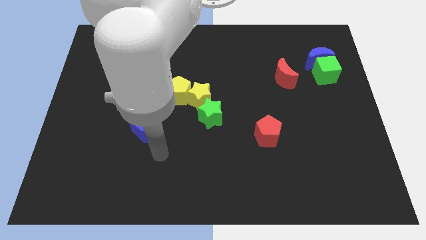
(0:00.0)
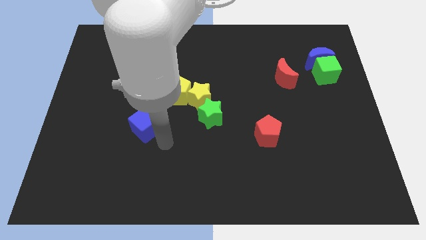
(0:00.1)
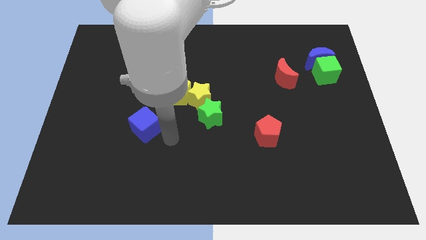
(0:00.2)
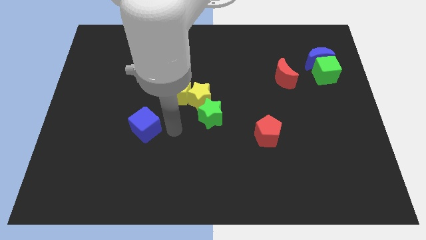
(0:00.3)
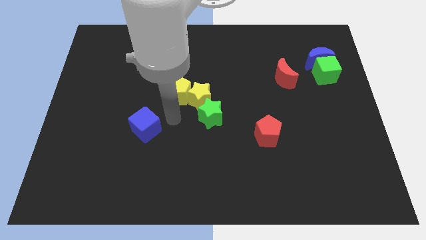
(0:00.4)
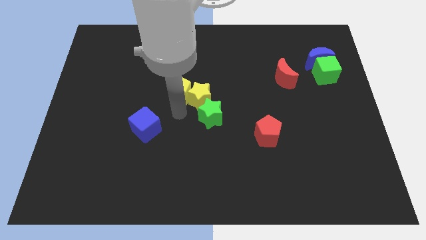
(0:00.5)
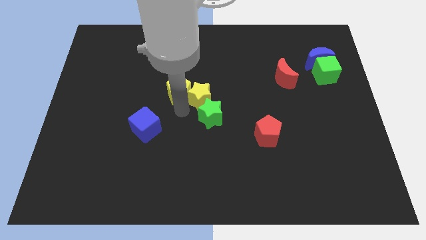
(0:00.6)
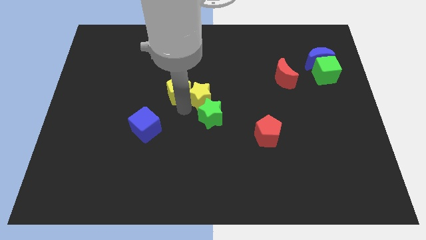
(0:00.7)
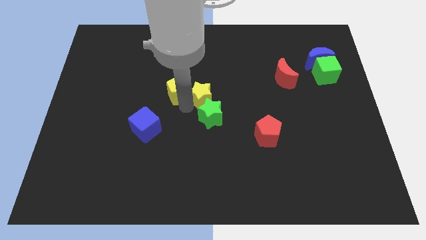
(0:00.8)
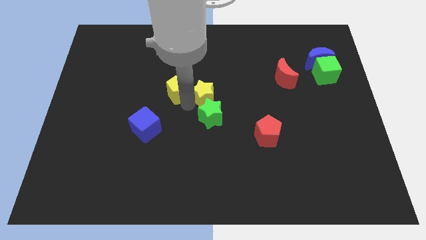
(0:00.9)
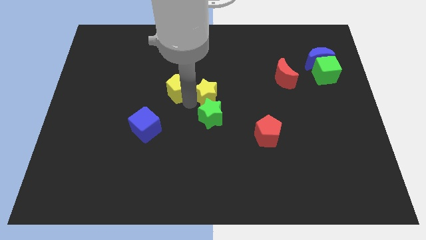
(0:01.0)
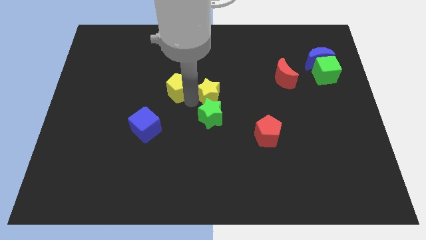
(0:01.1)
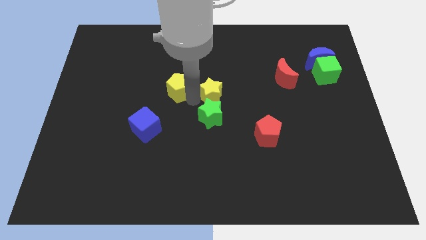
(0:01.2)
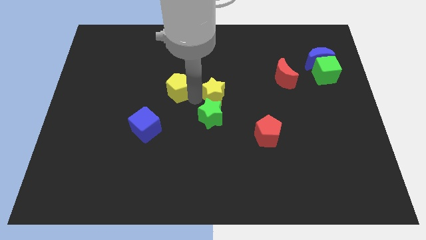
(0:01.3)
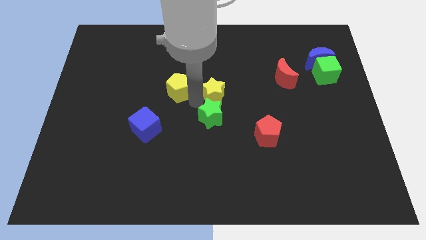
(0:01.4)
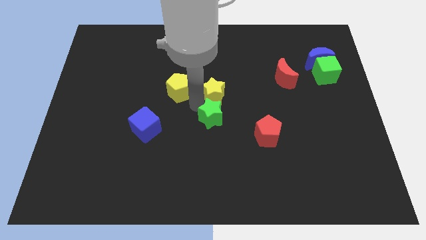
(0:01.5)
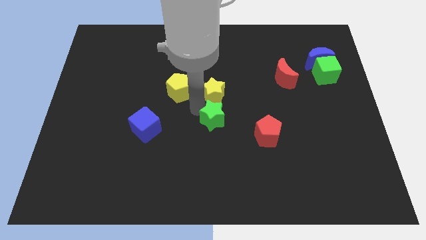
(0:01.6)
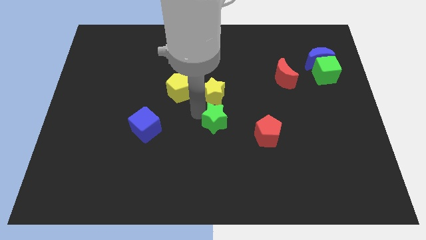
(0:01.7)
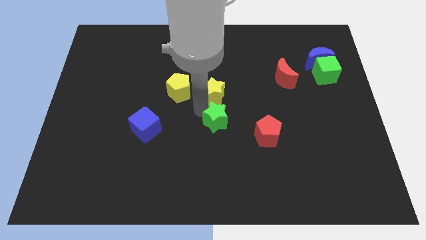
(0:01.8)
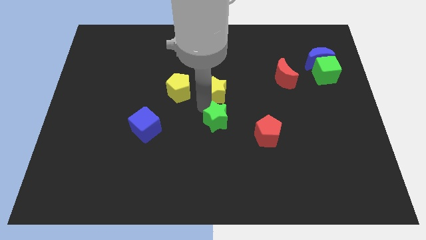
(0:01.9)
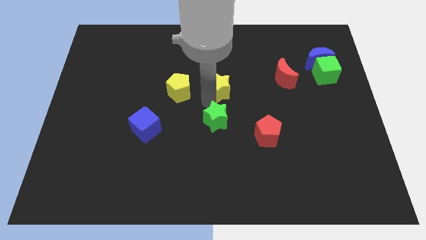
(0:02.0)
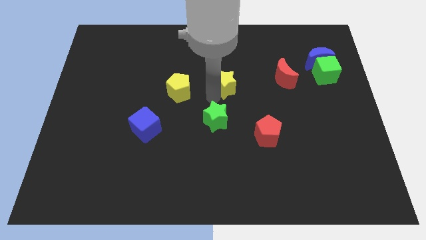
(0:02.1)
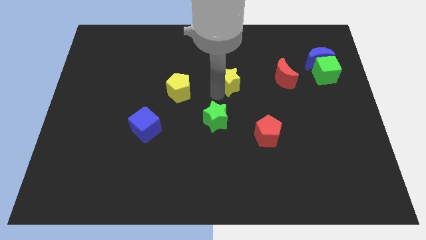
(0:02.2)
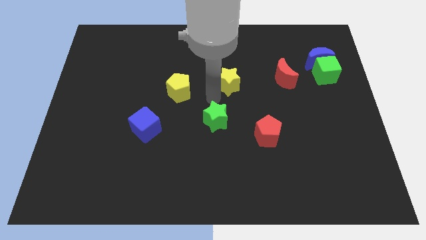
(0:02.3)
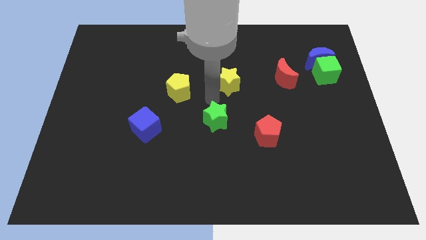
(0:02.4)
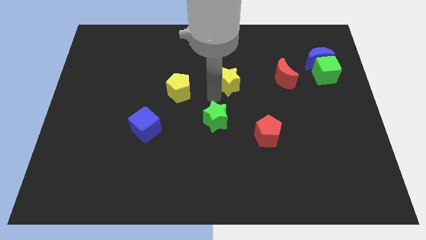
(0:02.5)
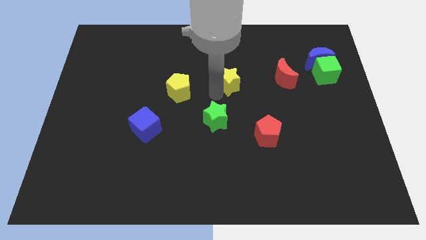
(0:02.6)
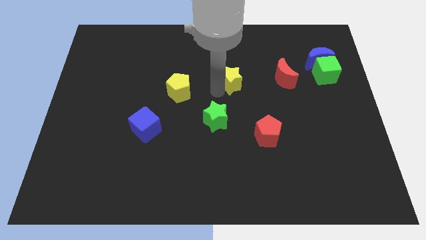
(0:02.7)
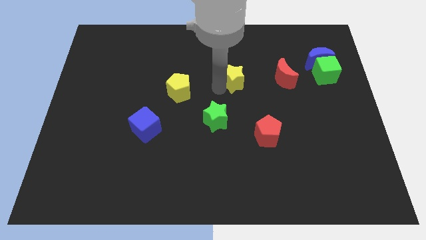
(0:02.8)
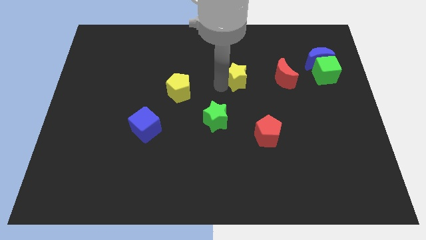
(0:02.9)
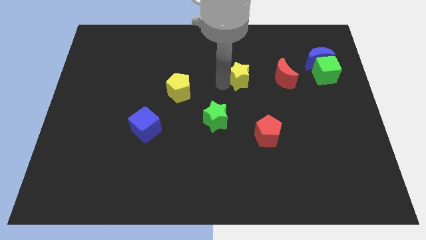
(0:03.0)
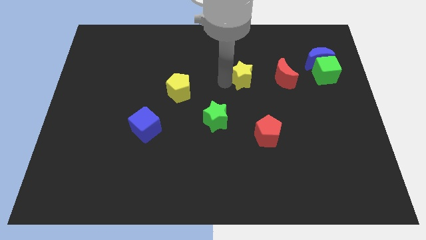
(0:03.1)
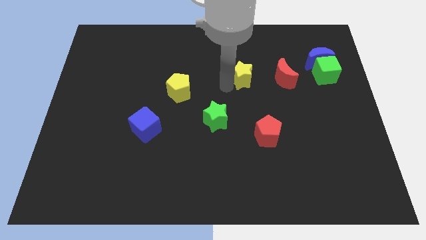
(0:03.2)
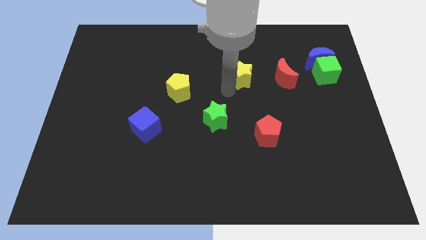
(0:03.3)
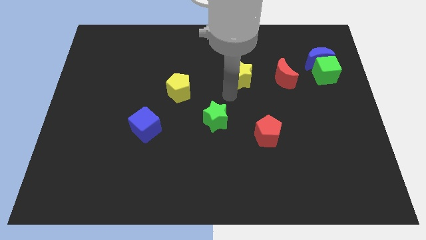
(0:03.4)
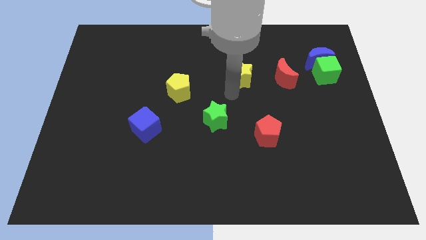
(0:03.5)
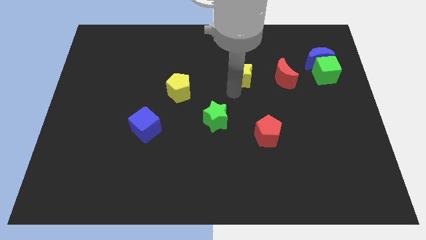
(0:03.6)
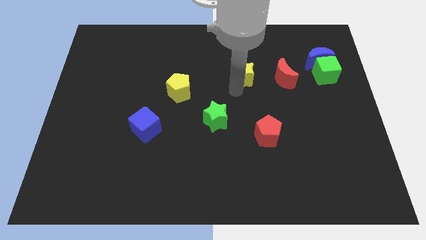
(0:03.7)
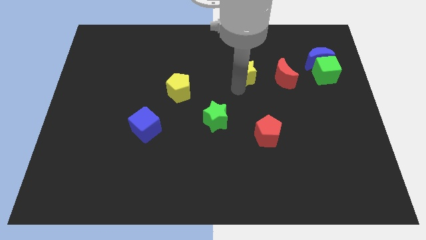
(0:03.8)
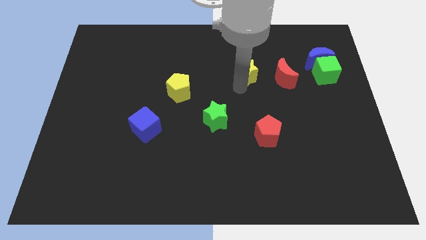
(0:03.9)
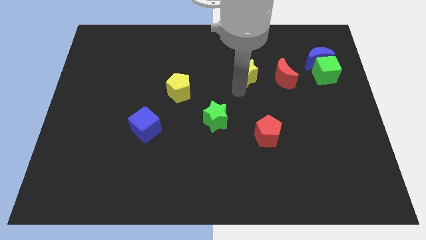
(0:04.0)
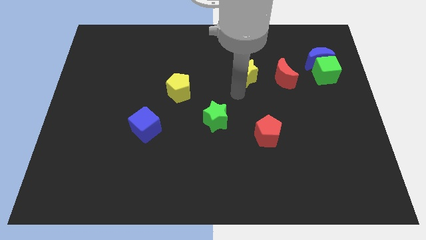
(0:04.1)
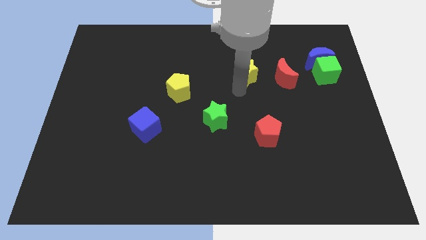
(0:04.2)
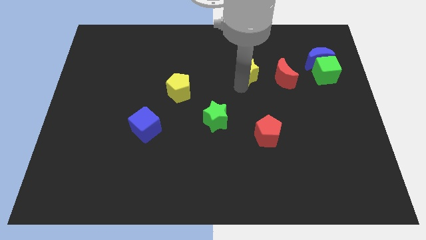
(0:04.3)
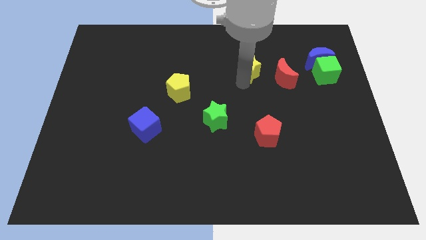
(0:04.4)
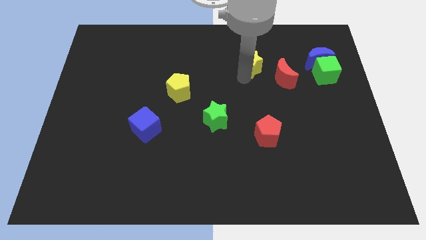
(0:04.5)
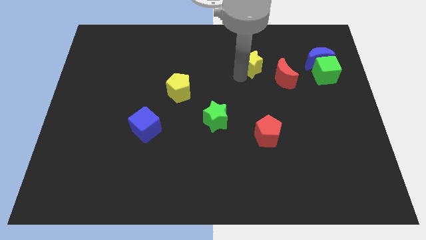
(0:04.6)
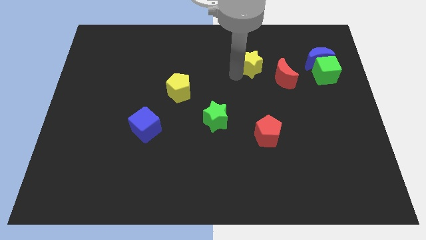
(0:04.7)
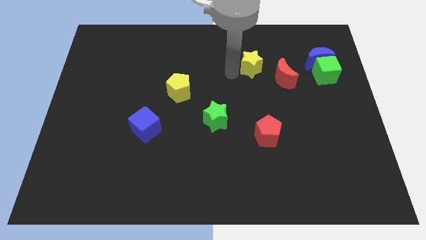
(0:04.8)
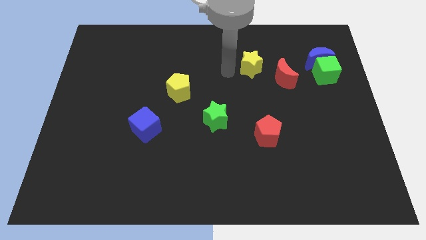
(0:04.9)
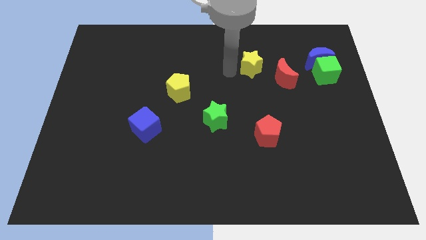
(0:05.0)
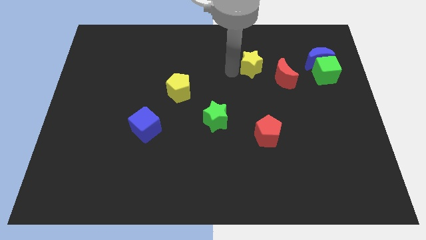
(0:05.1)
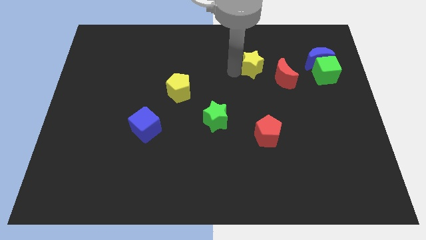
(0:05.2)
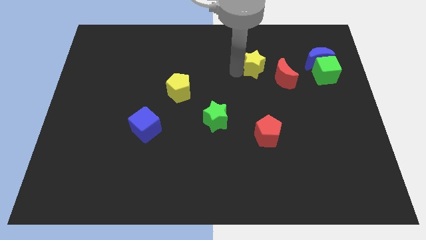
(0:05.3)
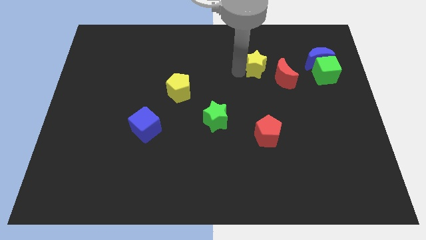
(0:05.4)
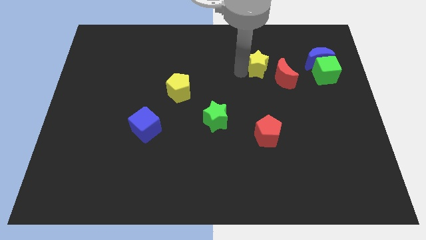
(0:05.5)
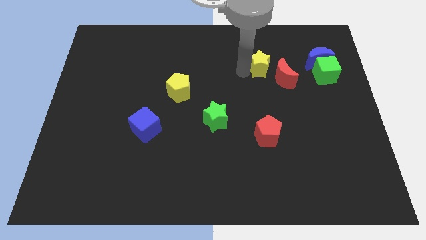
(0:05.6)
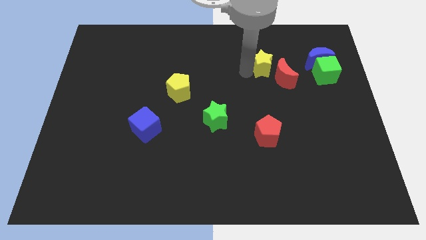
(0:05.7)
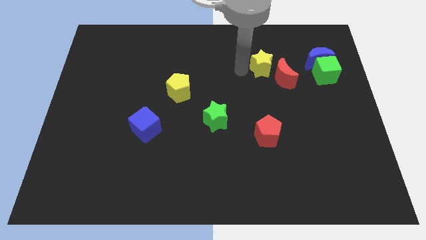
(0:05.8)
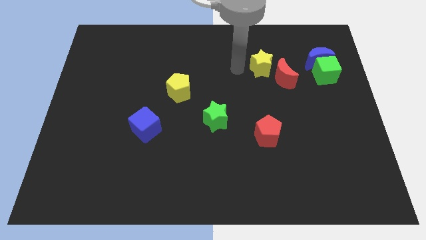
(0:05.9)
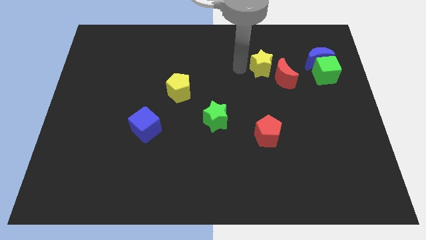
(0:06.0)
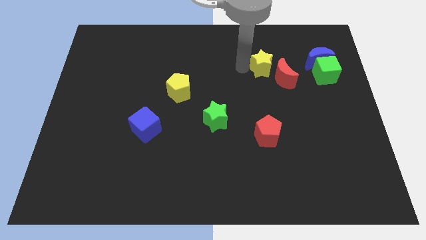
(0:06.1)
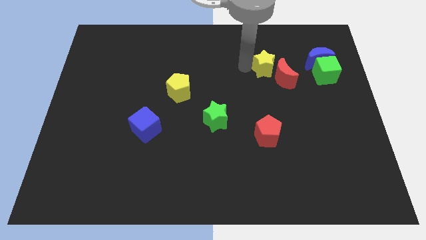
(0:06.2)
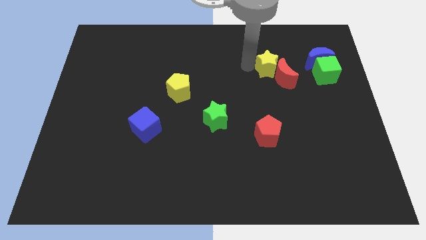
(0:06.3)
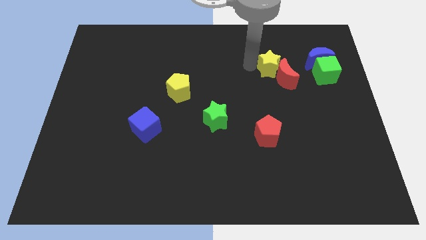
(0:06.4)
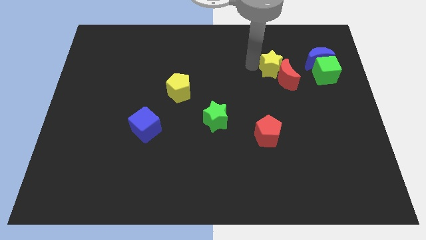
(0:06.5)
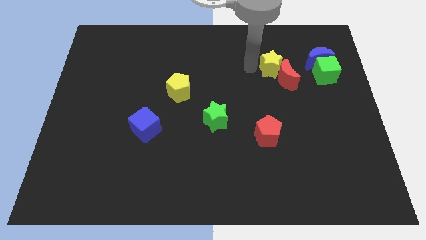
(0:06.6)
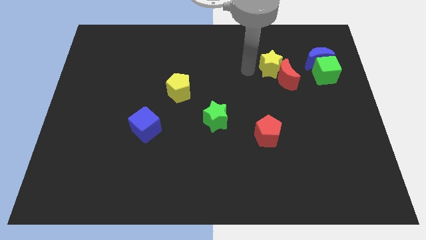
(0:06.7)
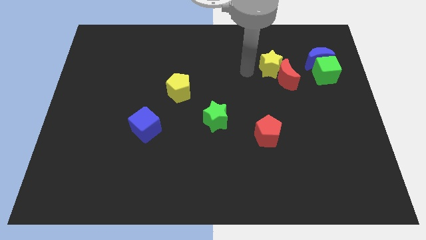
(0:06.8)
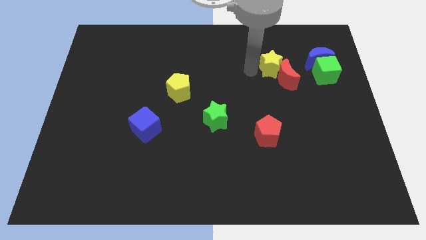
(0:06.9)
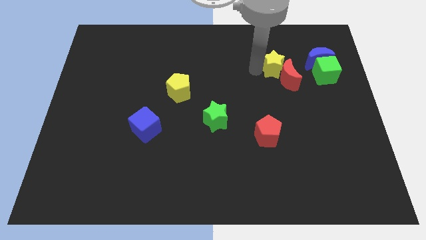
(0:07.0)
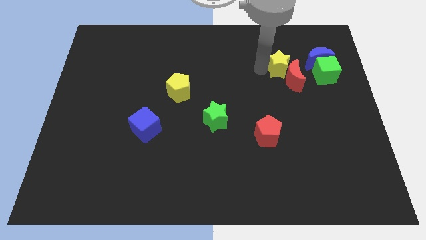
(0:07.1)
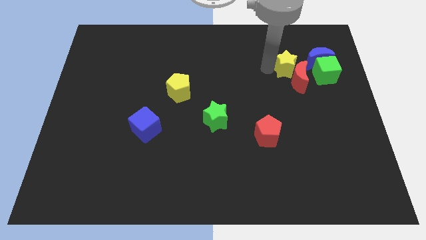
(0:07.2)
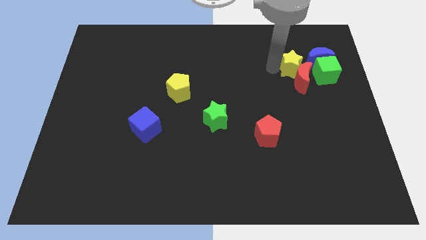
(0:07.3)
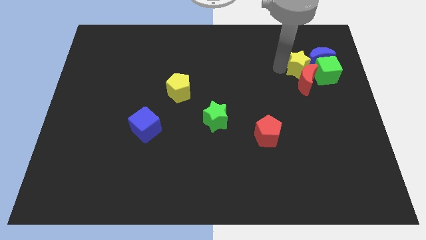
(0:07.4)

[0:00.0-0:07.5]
put the yellow star to the blue moon
